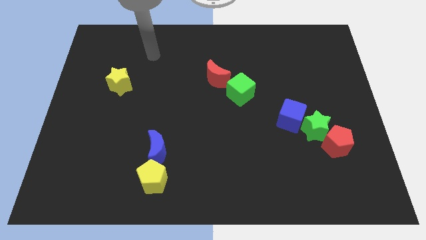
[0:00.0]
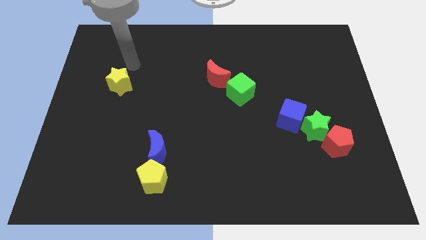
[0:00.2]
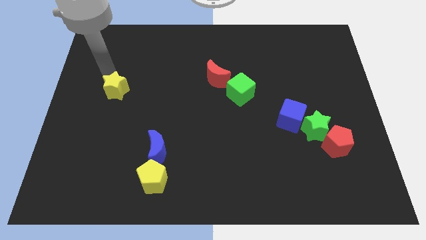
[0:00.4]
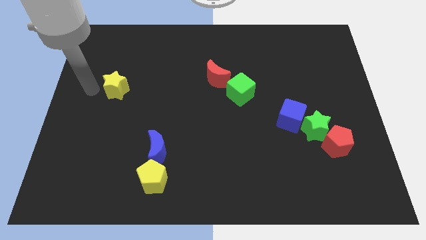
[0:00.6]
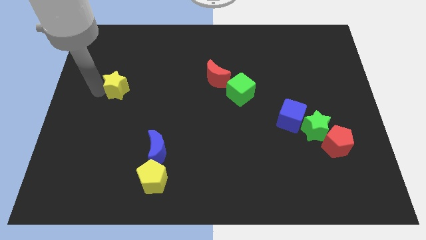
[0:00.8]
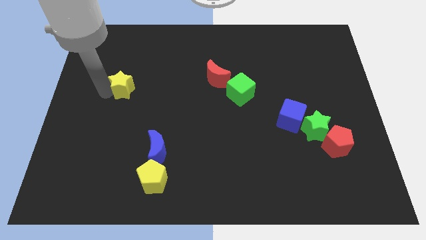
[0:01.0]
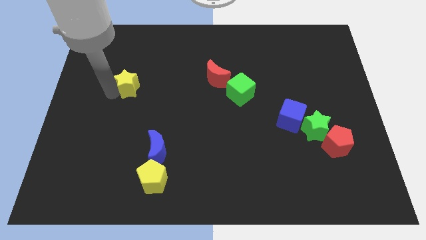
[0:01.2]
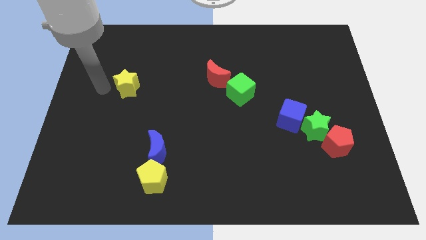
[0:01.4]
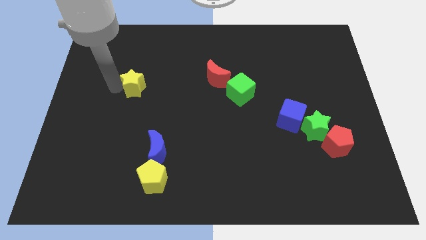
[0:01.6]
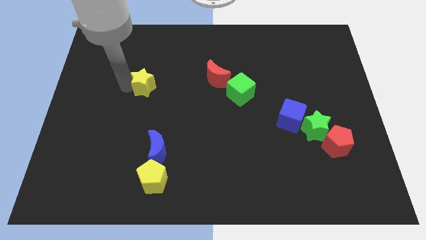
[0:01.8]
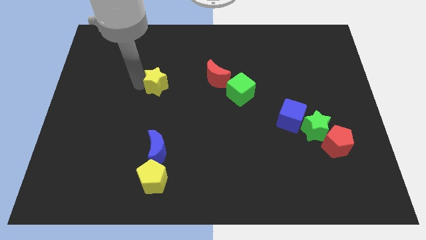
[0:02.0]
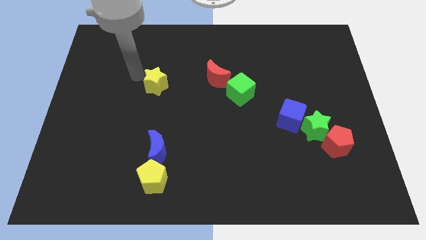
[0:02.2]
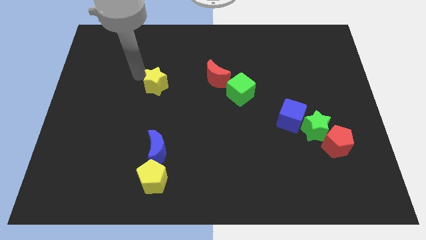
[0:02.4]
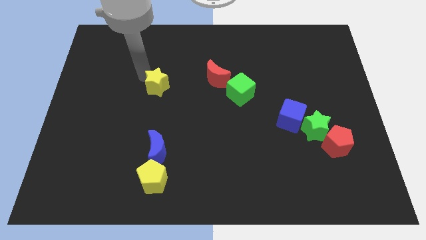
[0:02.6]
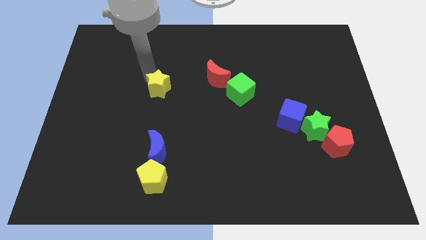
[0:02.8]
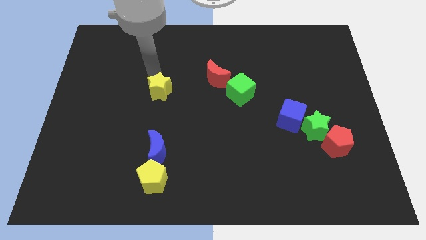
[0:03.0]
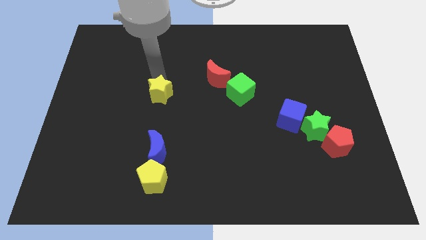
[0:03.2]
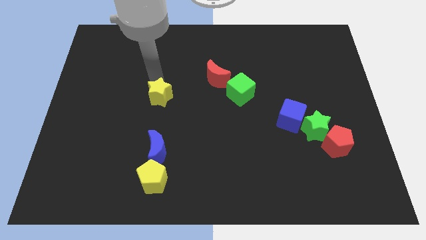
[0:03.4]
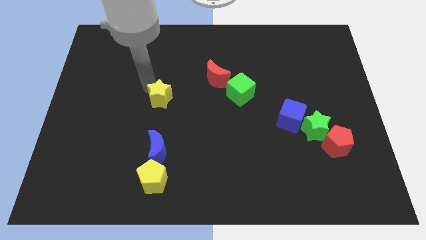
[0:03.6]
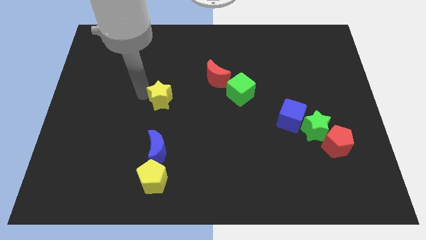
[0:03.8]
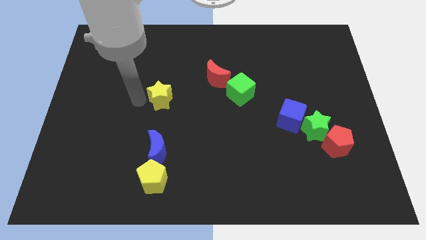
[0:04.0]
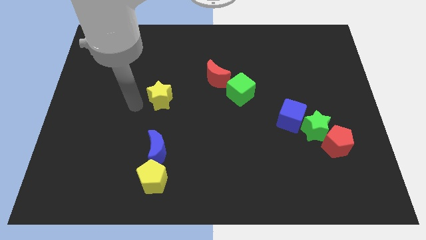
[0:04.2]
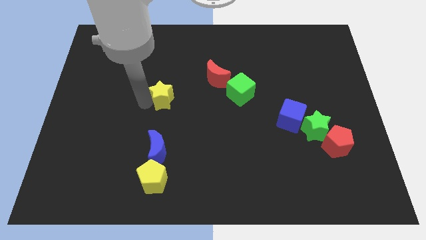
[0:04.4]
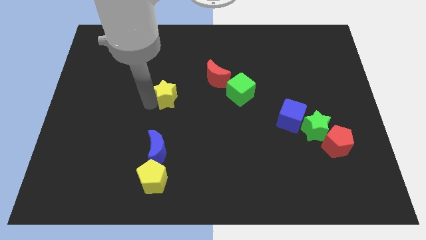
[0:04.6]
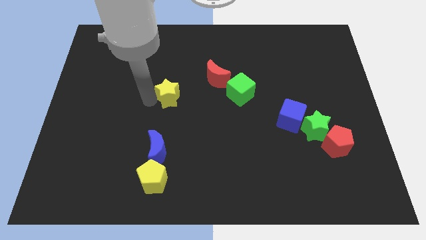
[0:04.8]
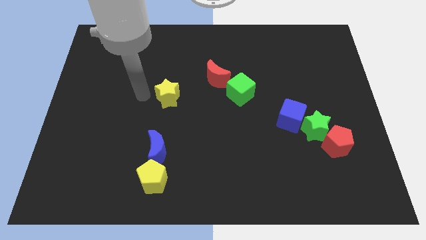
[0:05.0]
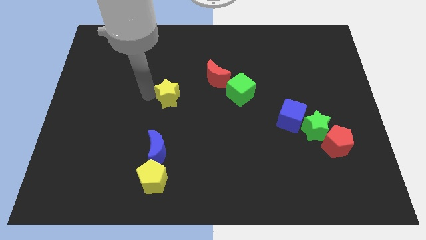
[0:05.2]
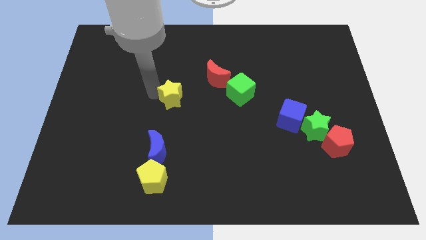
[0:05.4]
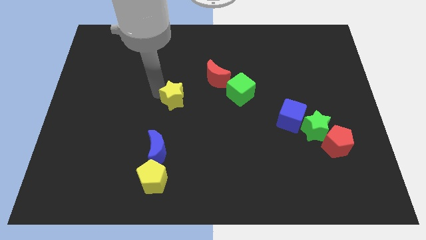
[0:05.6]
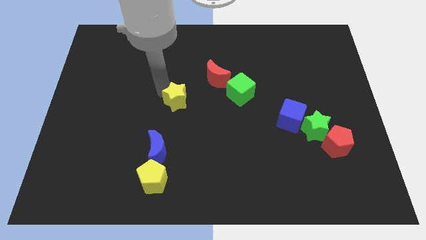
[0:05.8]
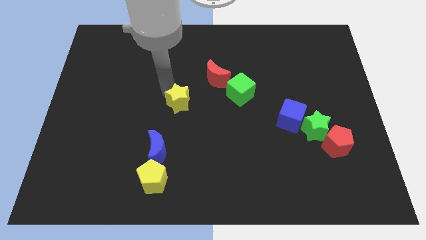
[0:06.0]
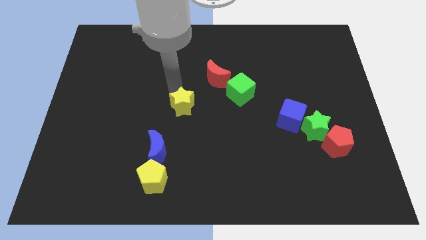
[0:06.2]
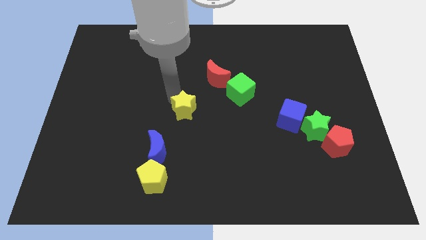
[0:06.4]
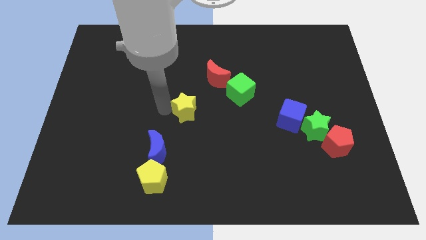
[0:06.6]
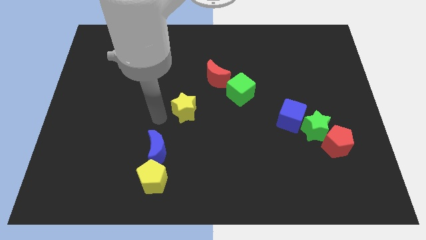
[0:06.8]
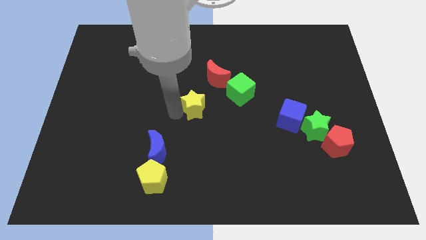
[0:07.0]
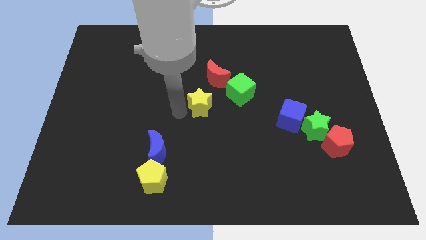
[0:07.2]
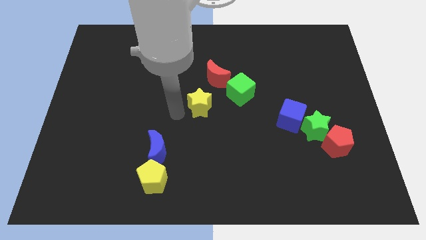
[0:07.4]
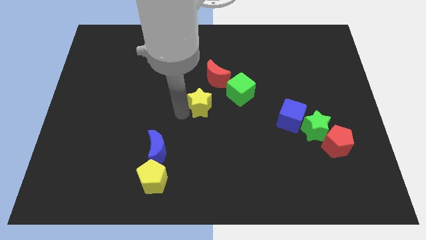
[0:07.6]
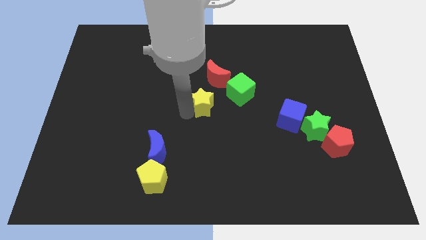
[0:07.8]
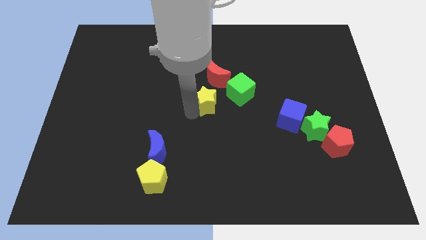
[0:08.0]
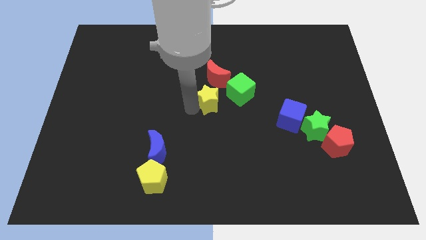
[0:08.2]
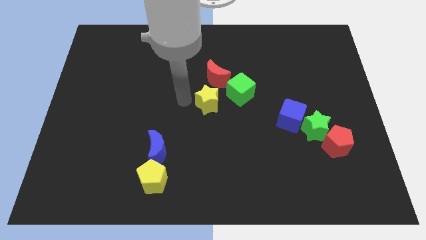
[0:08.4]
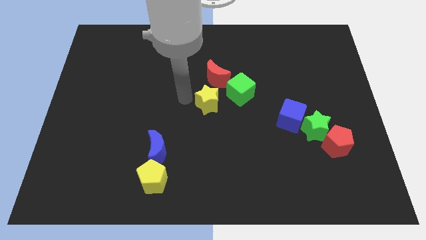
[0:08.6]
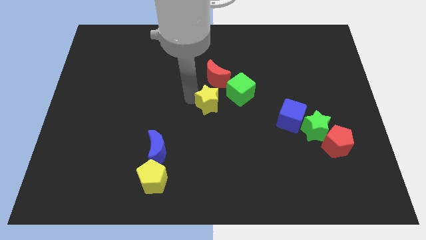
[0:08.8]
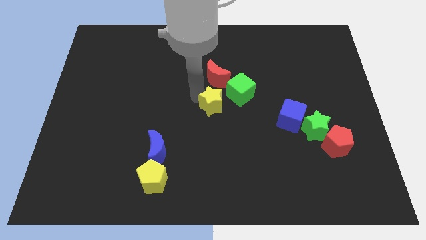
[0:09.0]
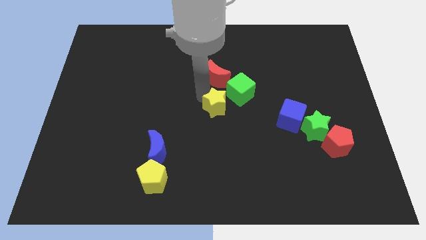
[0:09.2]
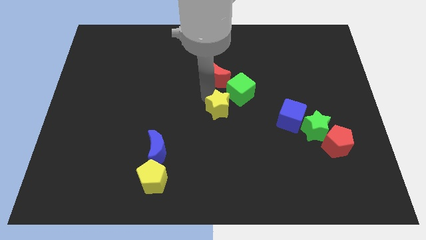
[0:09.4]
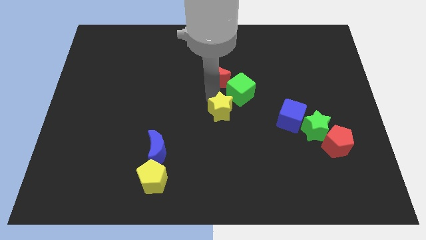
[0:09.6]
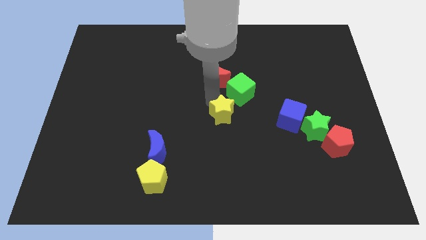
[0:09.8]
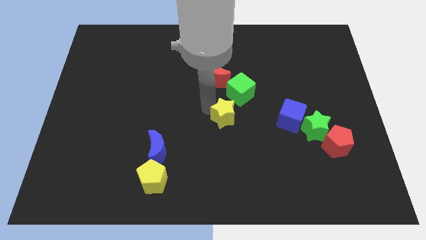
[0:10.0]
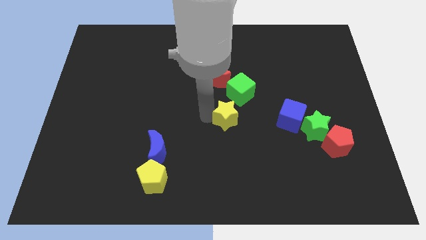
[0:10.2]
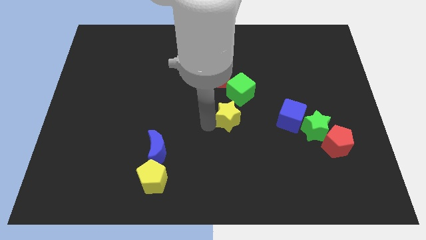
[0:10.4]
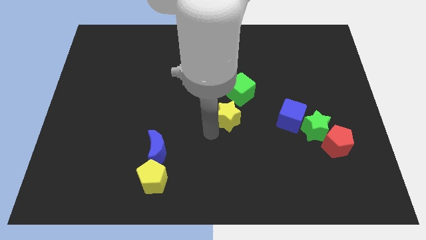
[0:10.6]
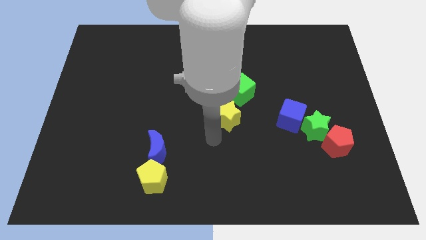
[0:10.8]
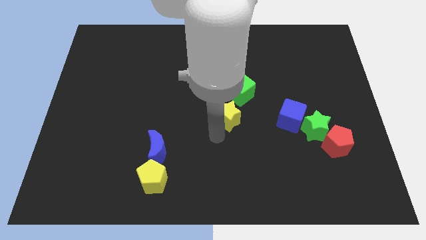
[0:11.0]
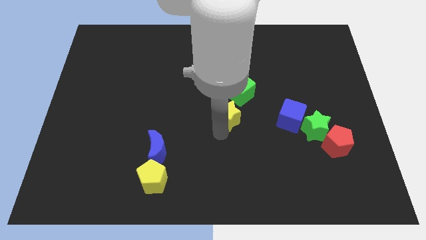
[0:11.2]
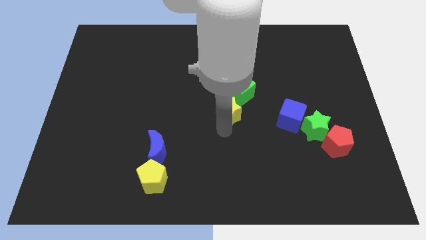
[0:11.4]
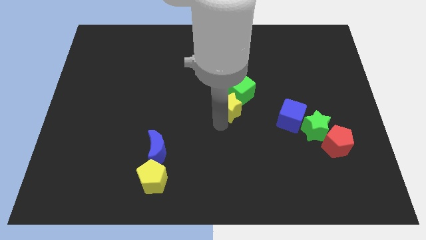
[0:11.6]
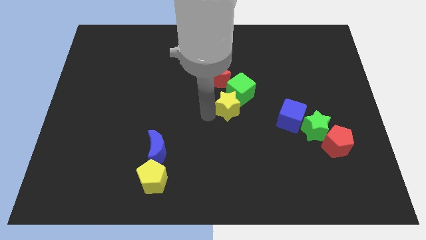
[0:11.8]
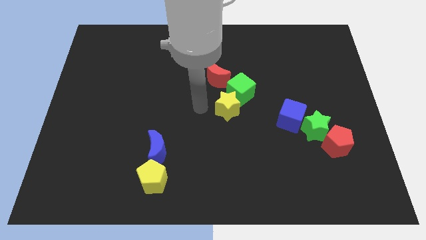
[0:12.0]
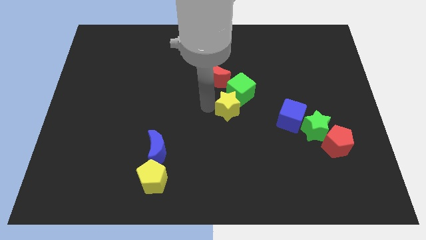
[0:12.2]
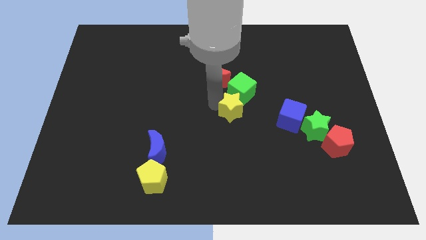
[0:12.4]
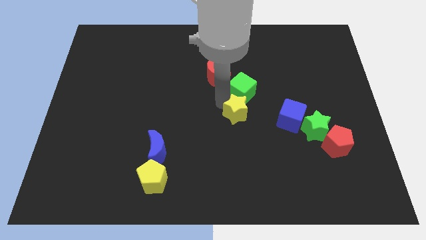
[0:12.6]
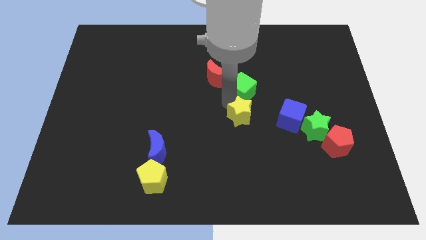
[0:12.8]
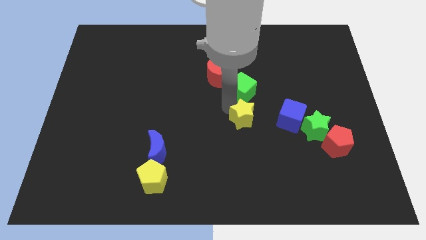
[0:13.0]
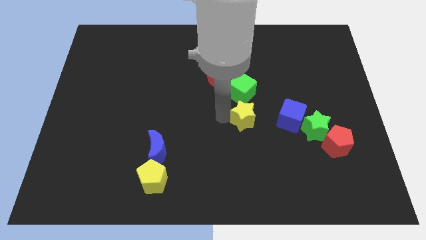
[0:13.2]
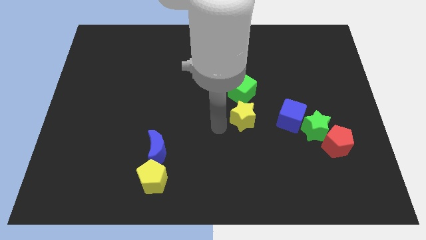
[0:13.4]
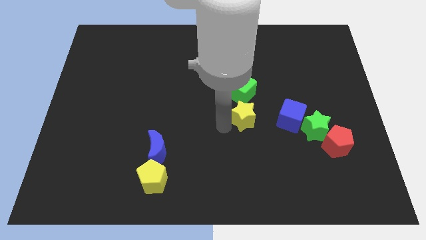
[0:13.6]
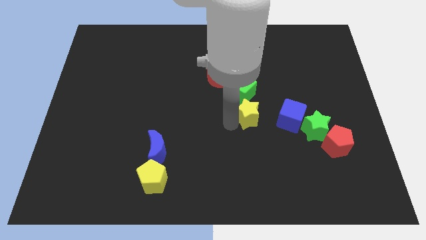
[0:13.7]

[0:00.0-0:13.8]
put the yellow star to the bottom right side of the green cube
